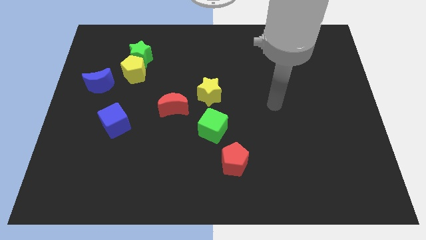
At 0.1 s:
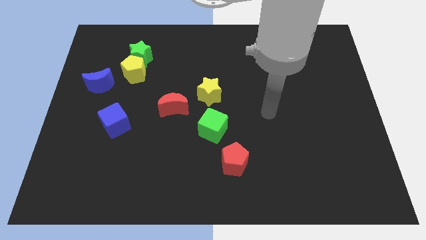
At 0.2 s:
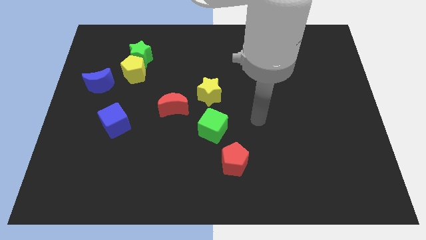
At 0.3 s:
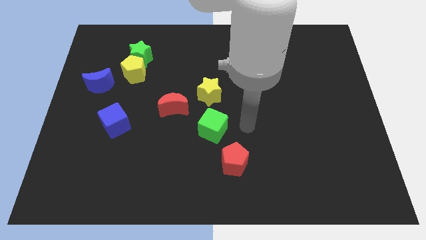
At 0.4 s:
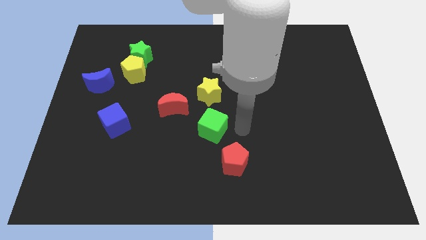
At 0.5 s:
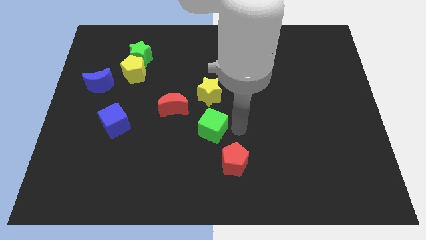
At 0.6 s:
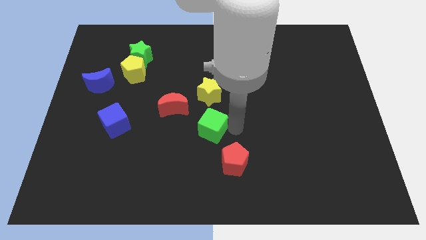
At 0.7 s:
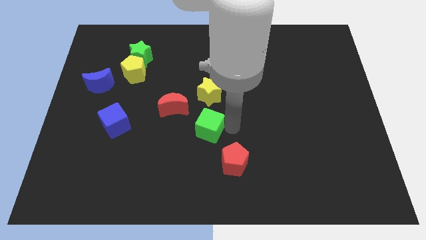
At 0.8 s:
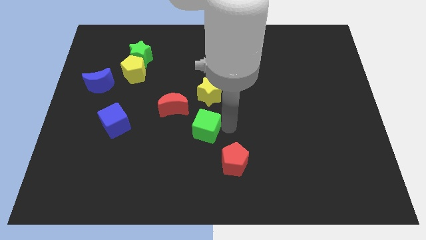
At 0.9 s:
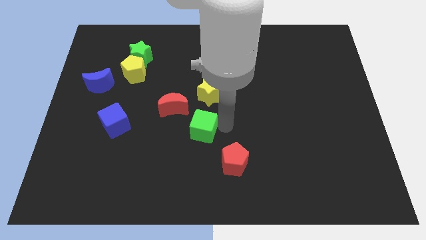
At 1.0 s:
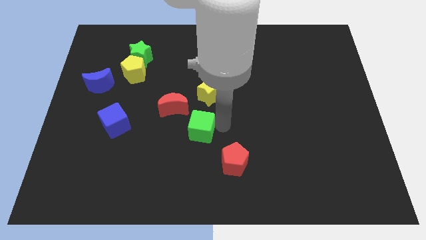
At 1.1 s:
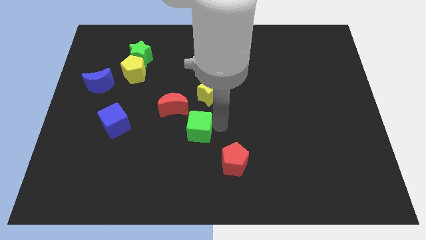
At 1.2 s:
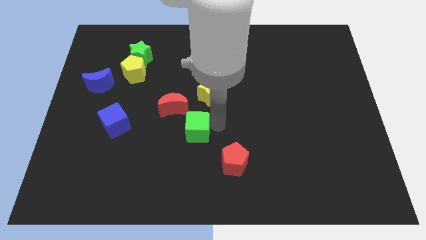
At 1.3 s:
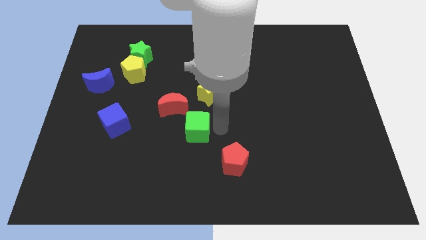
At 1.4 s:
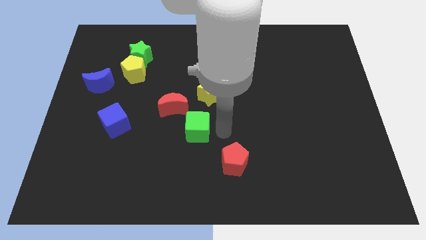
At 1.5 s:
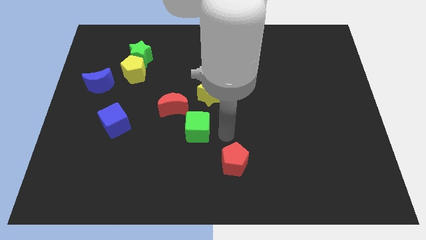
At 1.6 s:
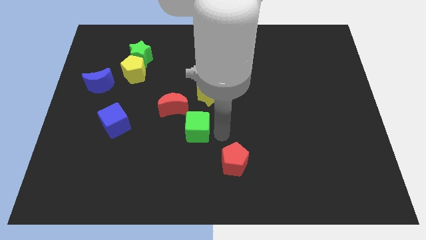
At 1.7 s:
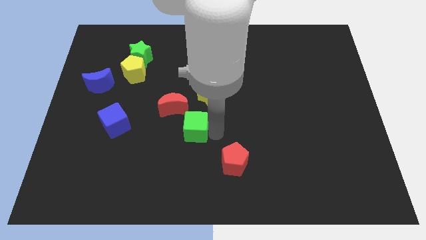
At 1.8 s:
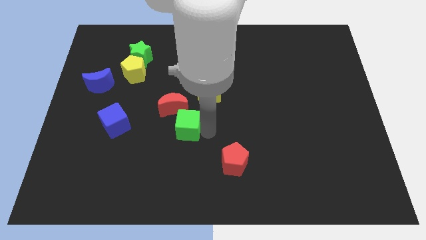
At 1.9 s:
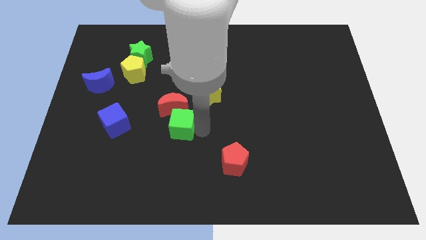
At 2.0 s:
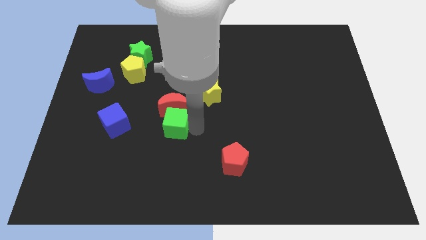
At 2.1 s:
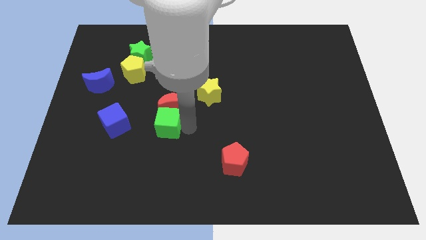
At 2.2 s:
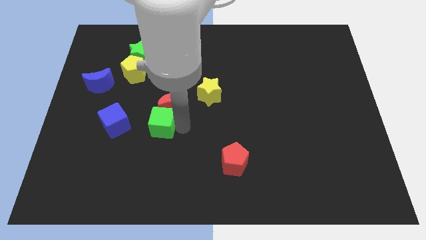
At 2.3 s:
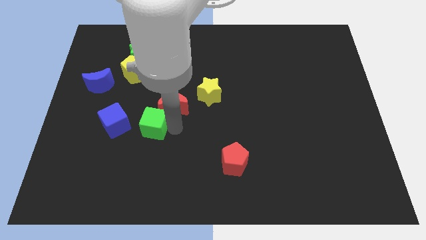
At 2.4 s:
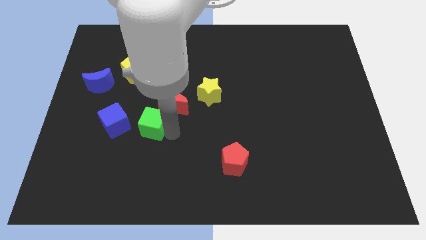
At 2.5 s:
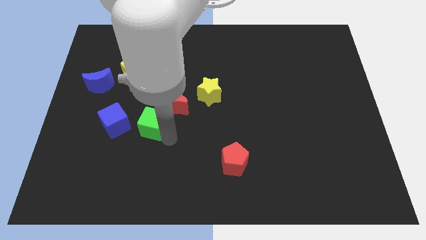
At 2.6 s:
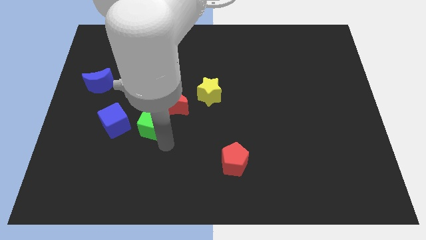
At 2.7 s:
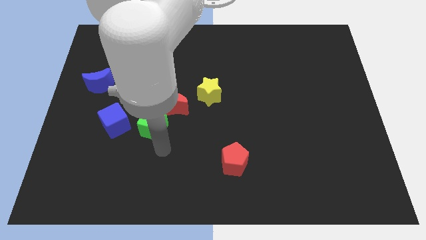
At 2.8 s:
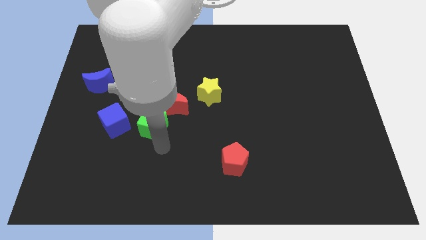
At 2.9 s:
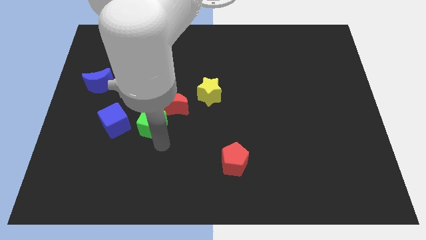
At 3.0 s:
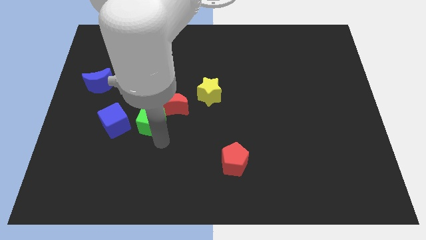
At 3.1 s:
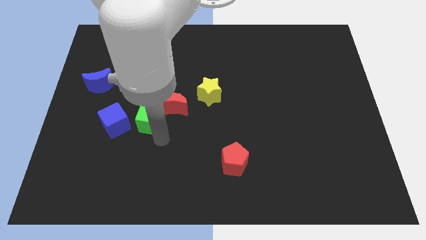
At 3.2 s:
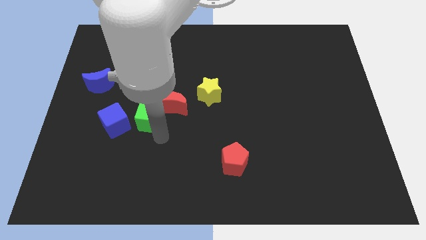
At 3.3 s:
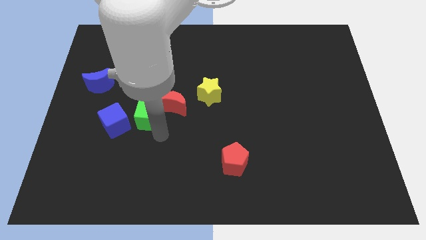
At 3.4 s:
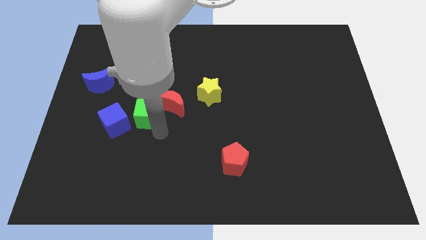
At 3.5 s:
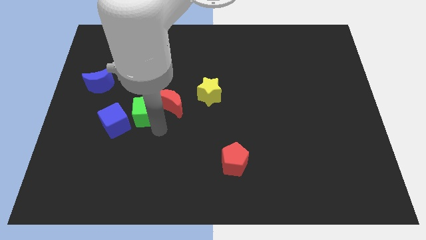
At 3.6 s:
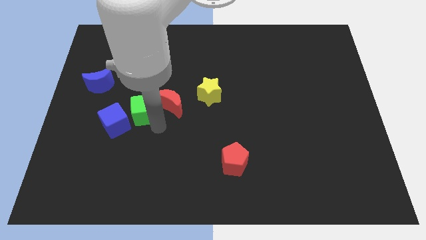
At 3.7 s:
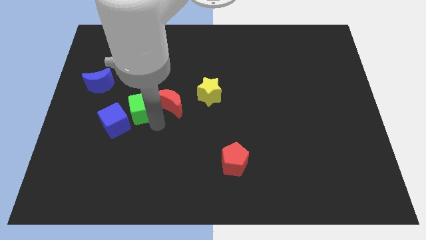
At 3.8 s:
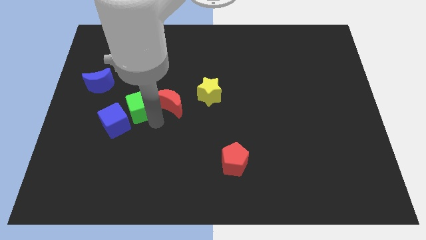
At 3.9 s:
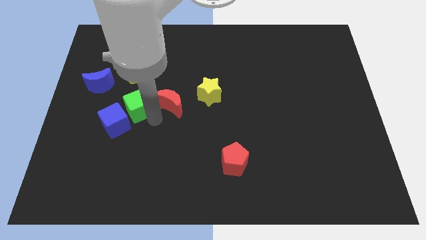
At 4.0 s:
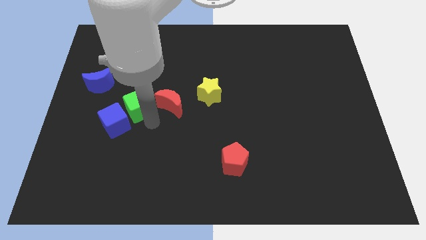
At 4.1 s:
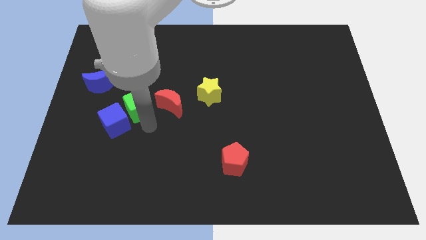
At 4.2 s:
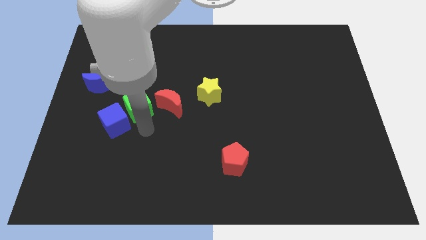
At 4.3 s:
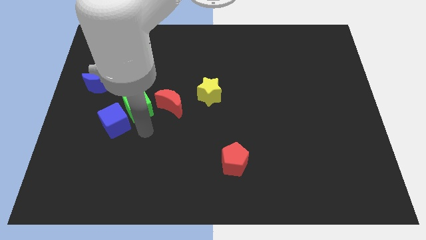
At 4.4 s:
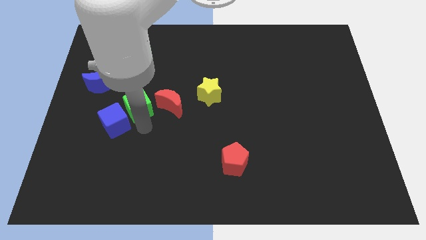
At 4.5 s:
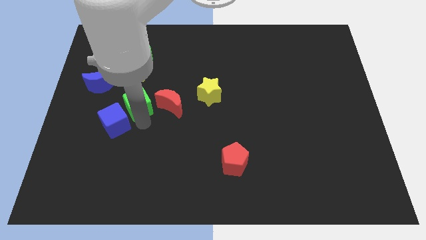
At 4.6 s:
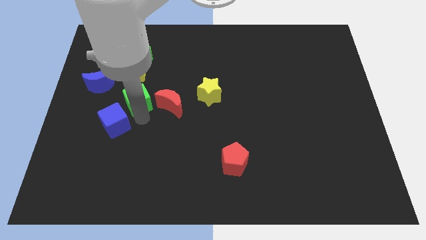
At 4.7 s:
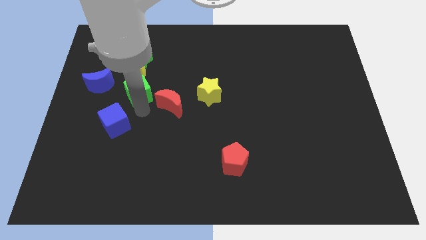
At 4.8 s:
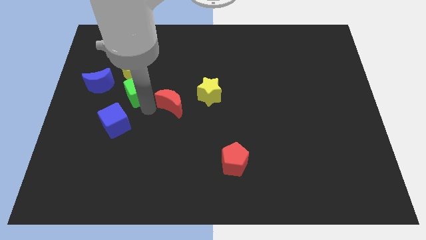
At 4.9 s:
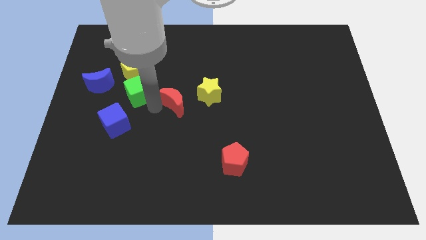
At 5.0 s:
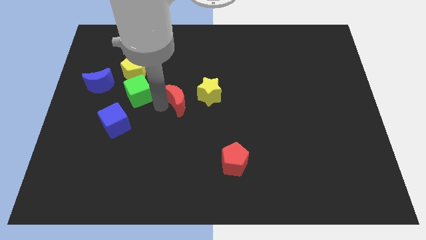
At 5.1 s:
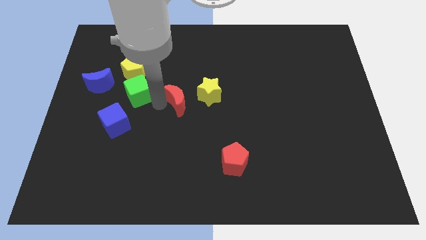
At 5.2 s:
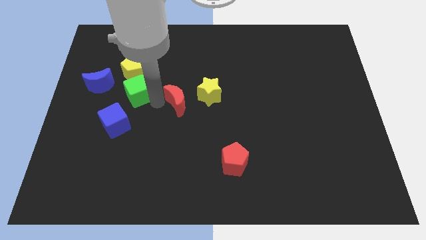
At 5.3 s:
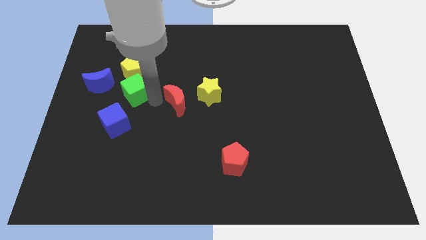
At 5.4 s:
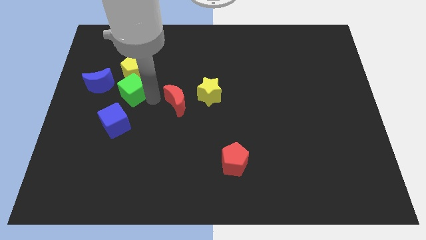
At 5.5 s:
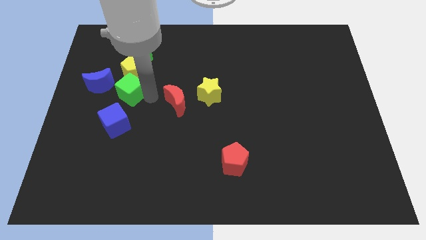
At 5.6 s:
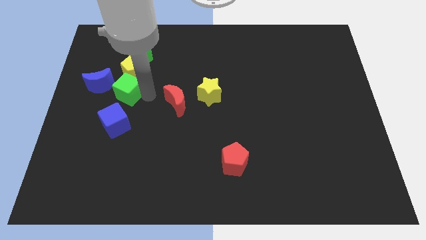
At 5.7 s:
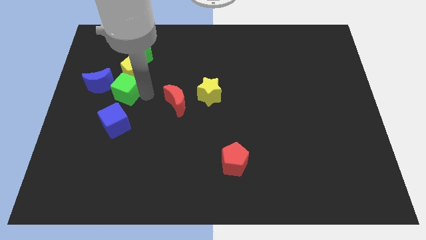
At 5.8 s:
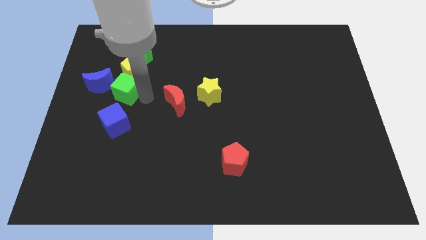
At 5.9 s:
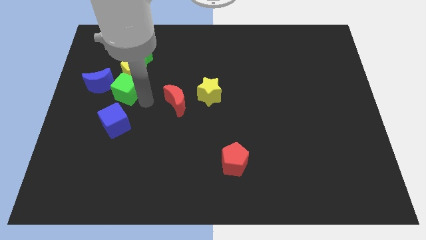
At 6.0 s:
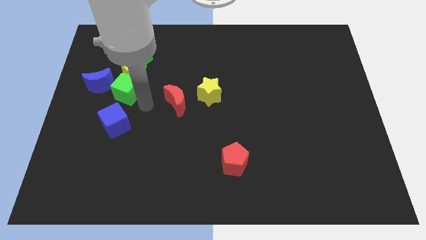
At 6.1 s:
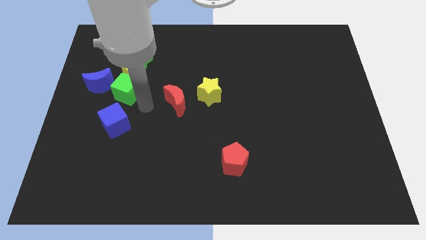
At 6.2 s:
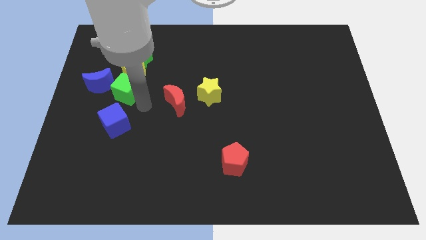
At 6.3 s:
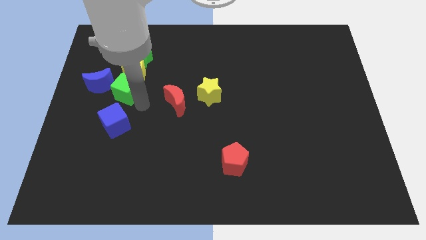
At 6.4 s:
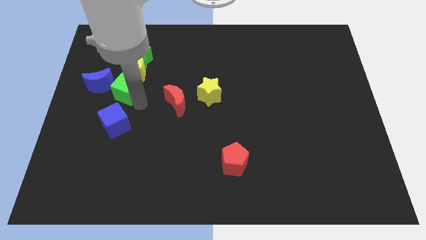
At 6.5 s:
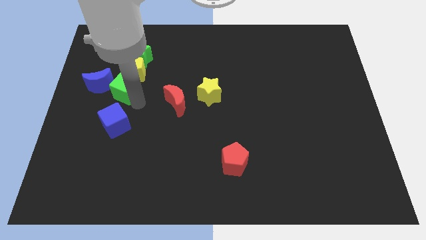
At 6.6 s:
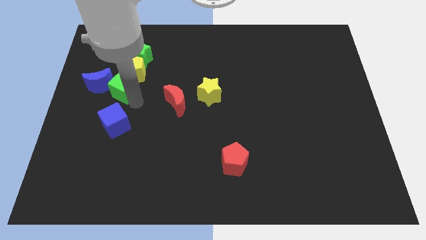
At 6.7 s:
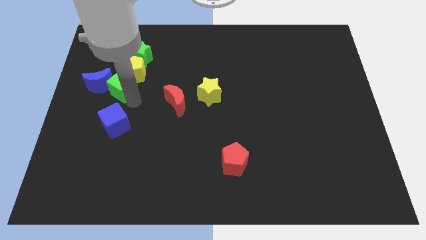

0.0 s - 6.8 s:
put the green cube towards the blue moon
